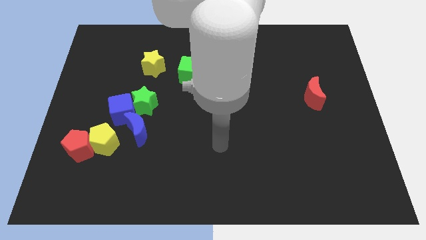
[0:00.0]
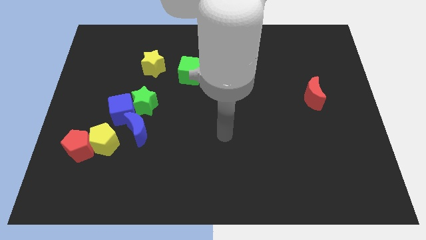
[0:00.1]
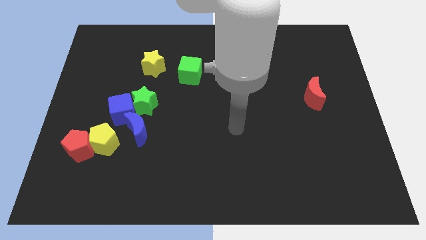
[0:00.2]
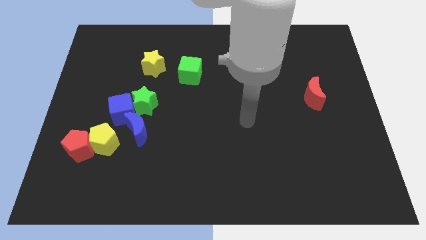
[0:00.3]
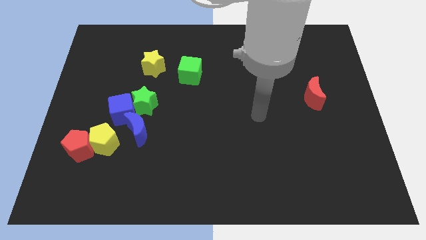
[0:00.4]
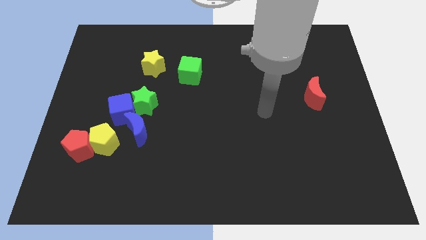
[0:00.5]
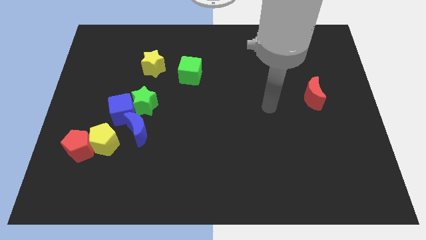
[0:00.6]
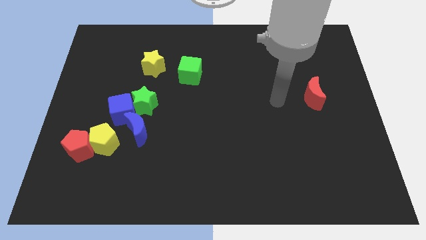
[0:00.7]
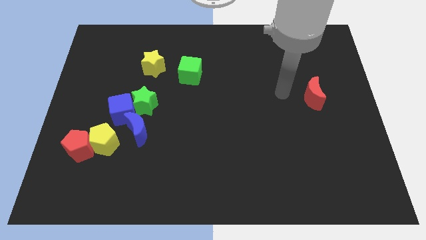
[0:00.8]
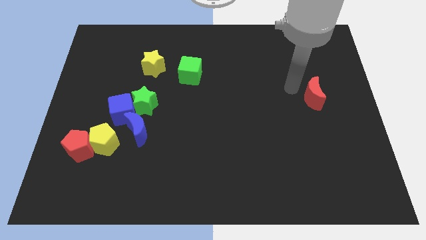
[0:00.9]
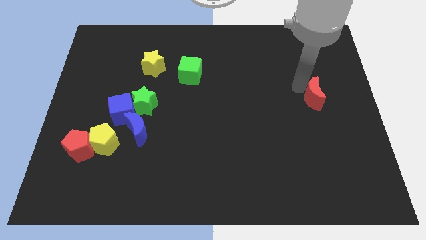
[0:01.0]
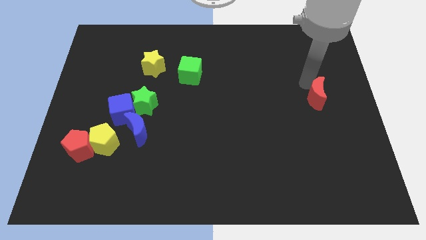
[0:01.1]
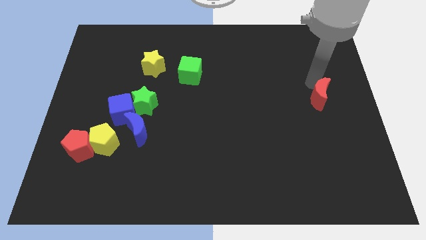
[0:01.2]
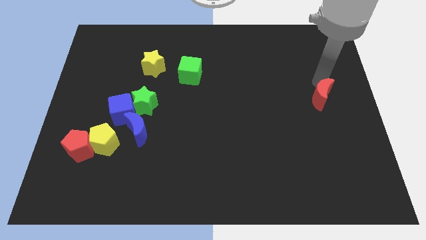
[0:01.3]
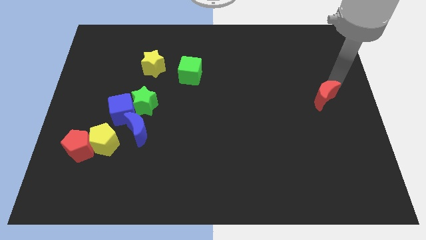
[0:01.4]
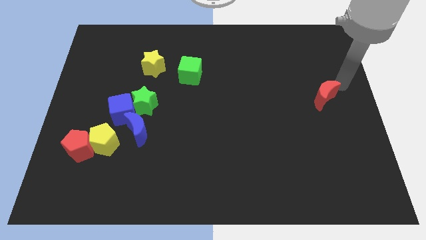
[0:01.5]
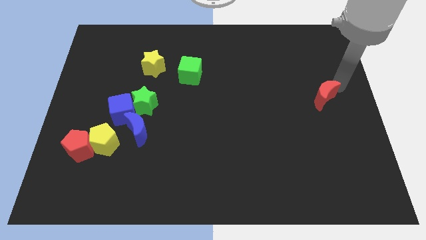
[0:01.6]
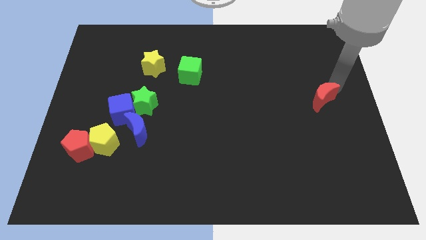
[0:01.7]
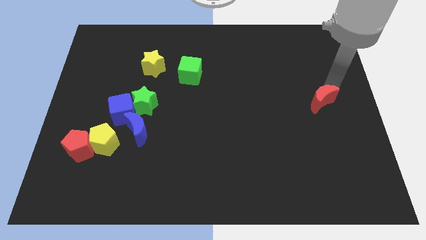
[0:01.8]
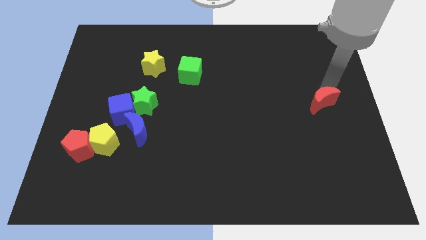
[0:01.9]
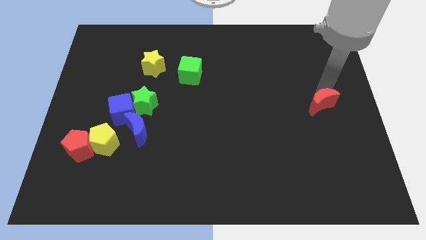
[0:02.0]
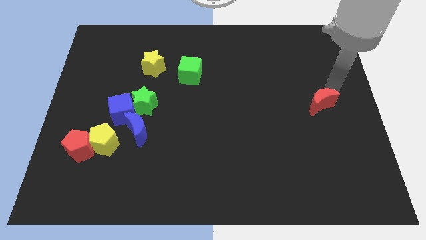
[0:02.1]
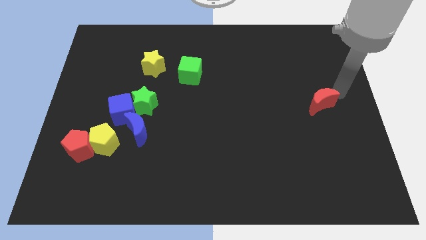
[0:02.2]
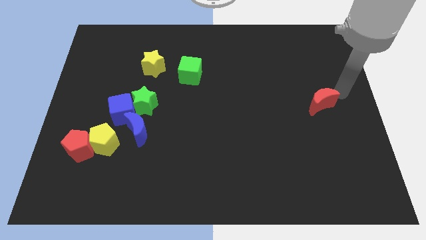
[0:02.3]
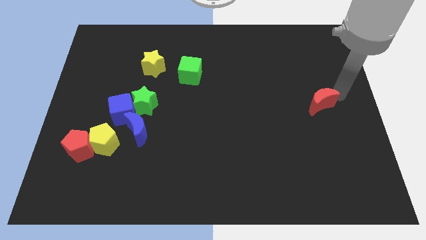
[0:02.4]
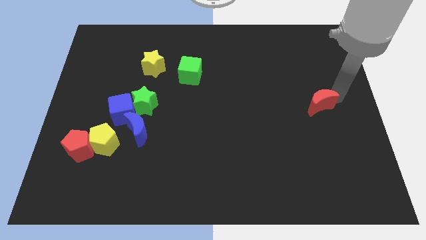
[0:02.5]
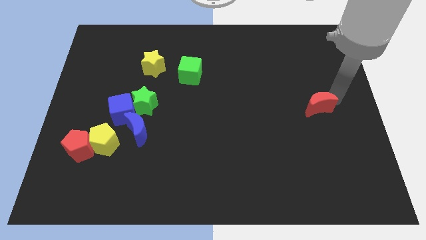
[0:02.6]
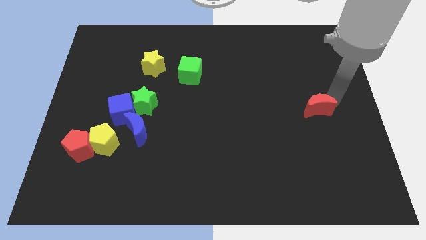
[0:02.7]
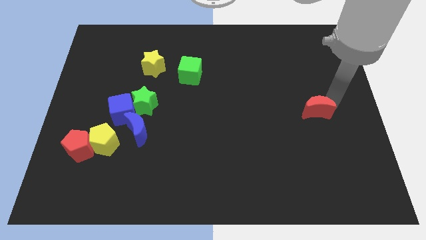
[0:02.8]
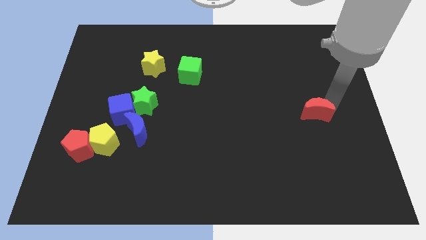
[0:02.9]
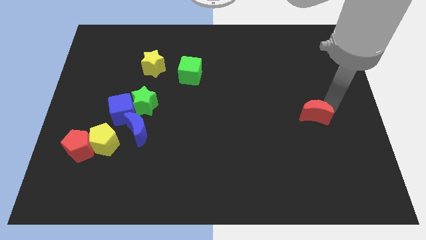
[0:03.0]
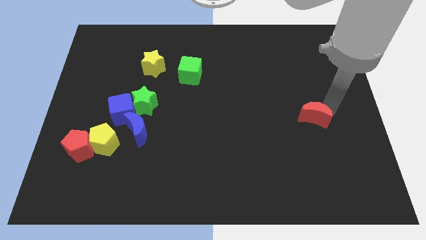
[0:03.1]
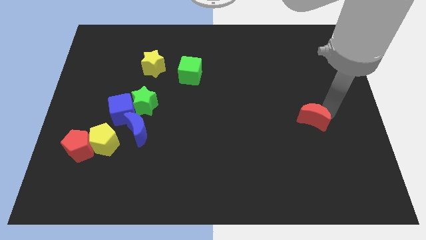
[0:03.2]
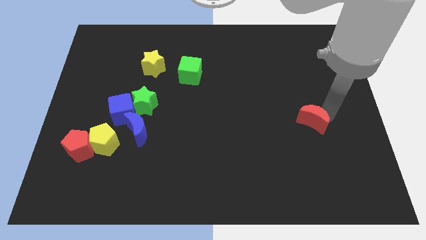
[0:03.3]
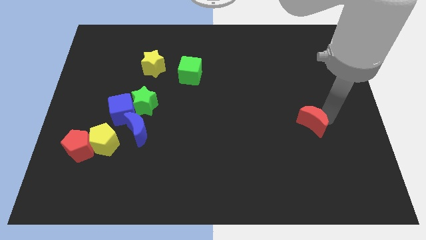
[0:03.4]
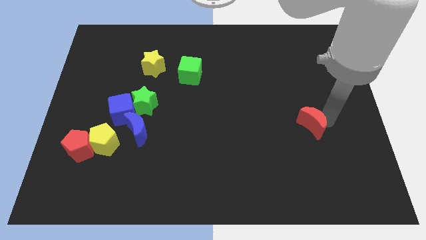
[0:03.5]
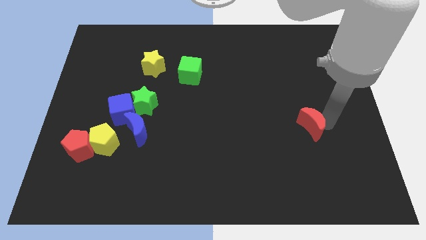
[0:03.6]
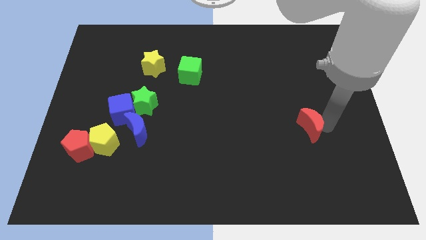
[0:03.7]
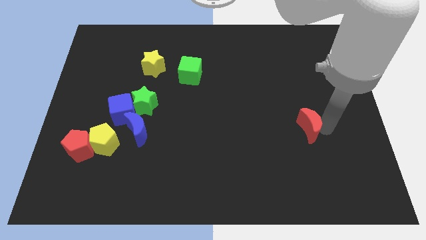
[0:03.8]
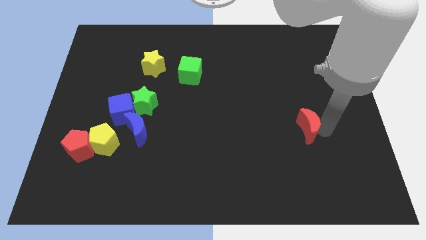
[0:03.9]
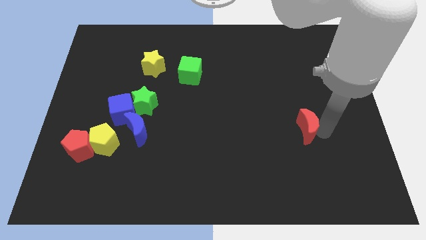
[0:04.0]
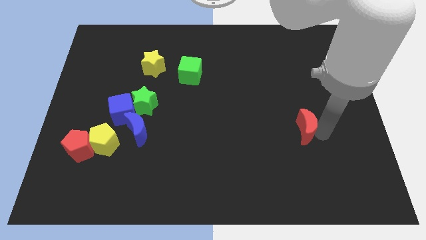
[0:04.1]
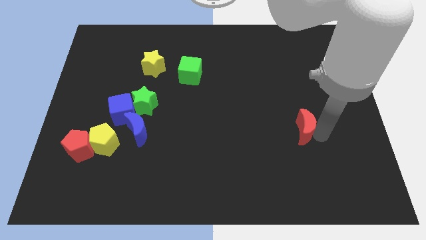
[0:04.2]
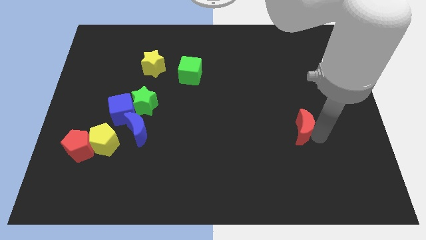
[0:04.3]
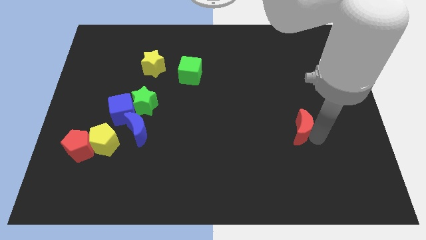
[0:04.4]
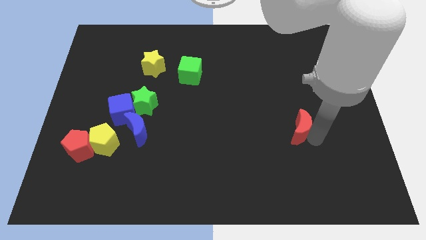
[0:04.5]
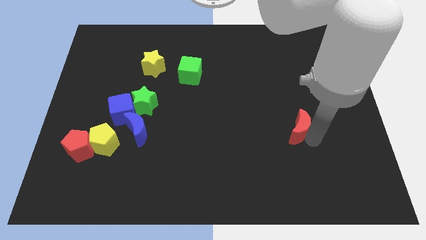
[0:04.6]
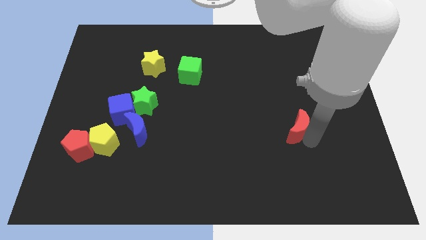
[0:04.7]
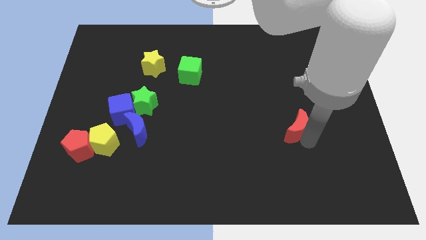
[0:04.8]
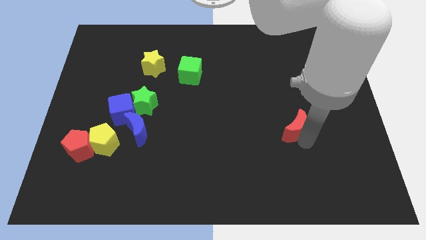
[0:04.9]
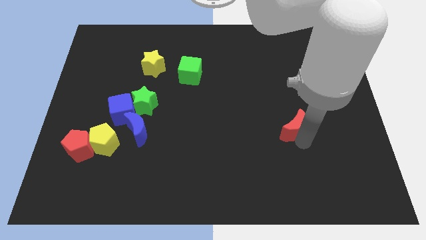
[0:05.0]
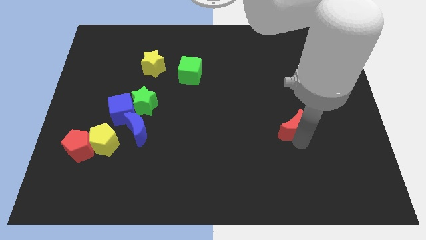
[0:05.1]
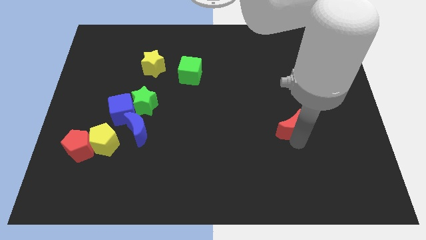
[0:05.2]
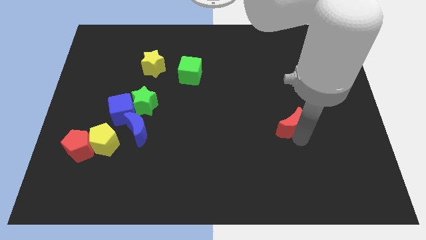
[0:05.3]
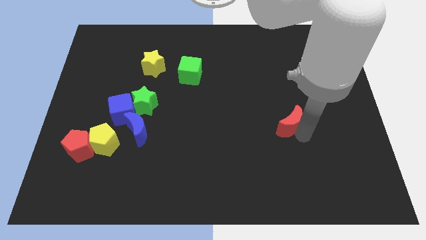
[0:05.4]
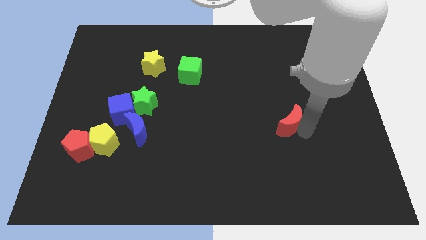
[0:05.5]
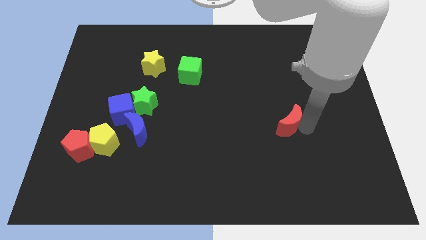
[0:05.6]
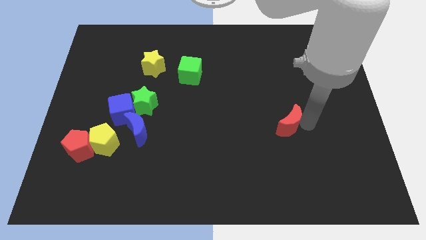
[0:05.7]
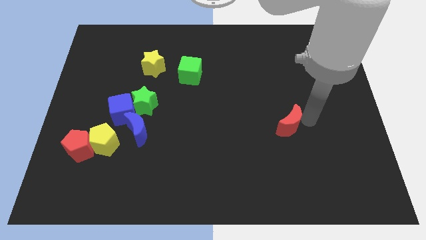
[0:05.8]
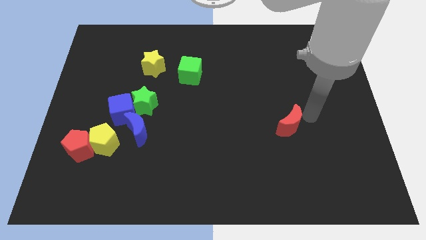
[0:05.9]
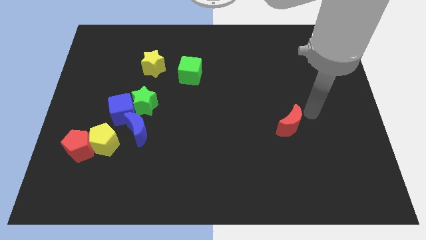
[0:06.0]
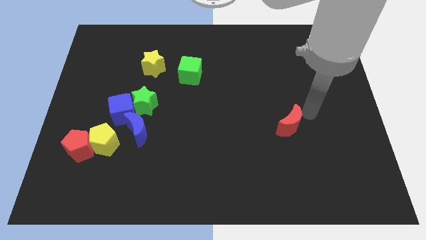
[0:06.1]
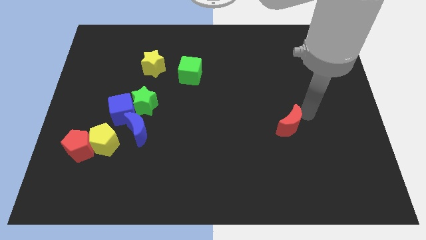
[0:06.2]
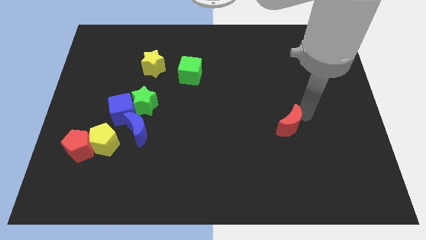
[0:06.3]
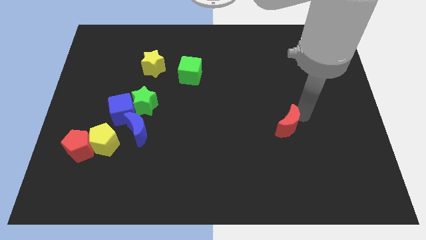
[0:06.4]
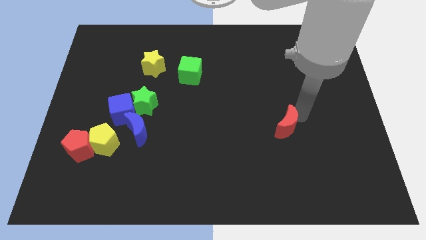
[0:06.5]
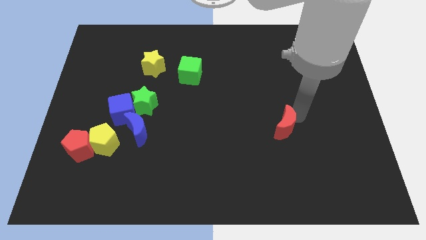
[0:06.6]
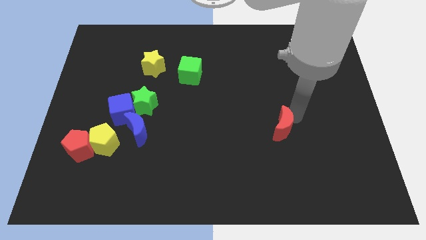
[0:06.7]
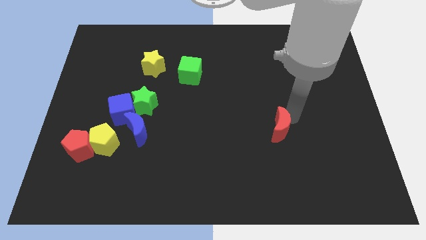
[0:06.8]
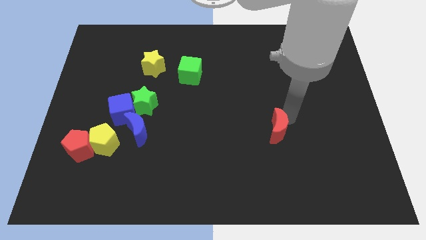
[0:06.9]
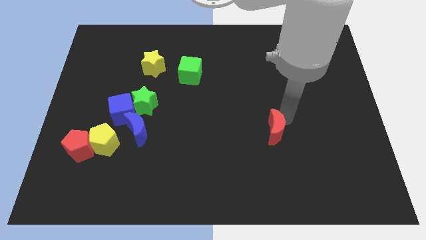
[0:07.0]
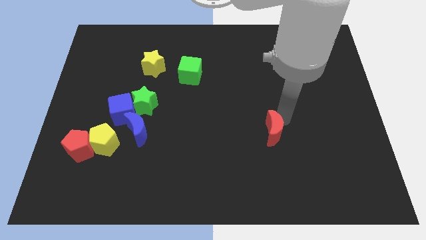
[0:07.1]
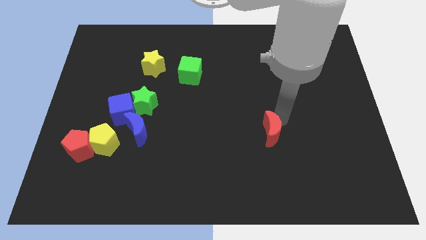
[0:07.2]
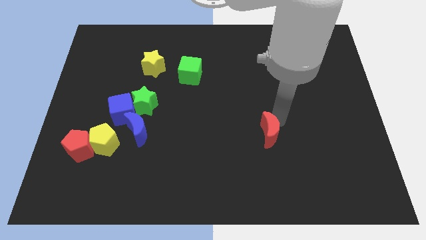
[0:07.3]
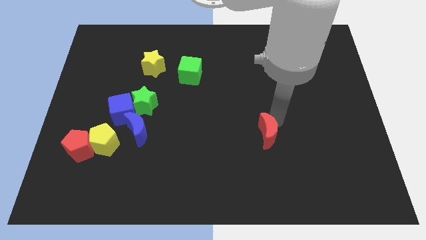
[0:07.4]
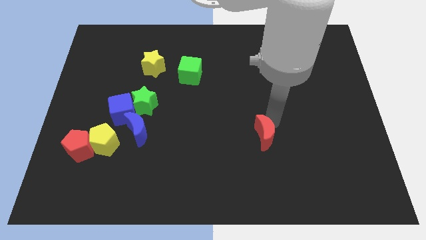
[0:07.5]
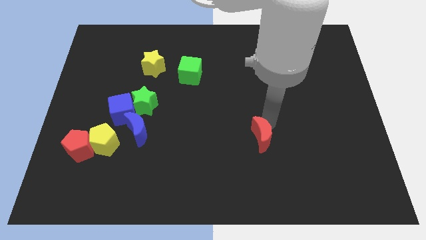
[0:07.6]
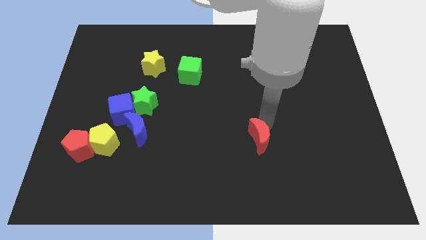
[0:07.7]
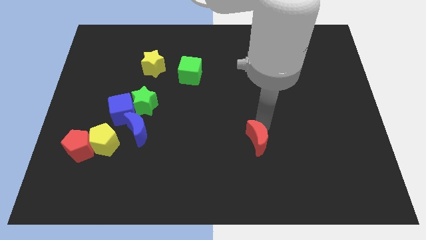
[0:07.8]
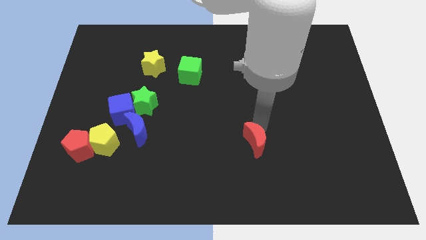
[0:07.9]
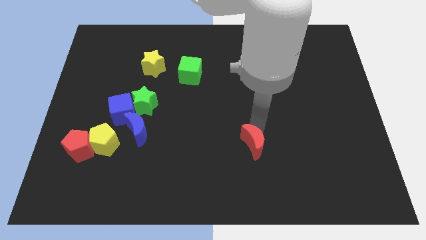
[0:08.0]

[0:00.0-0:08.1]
slide the red moon diagonally downwards and left
